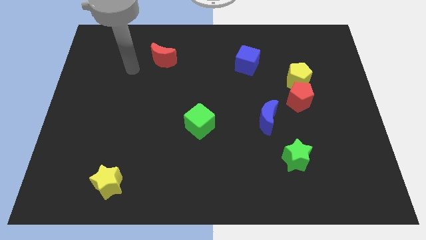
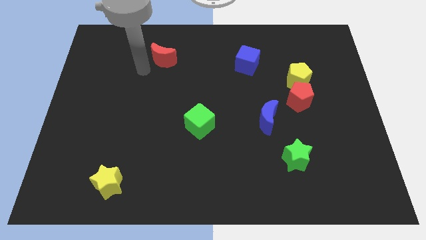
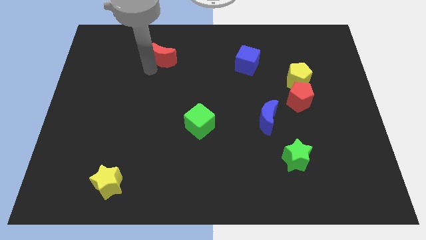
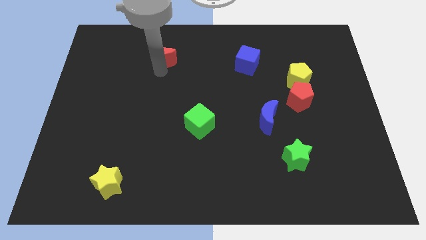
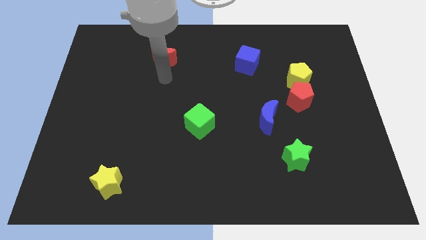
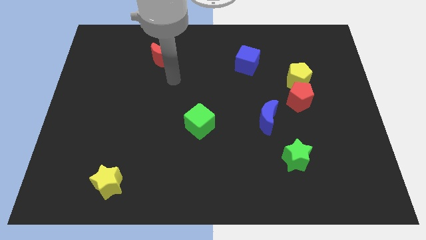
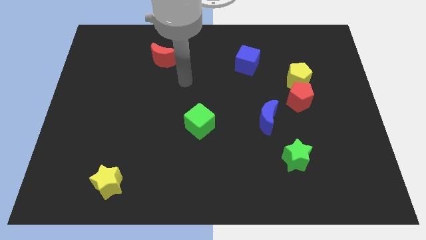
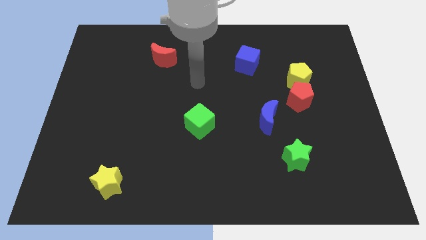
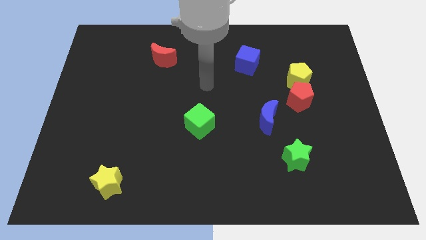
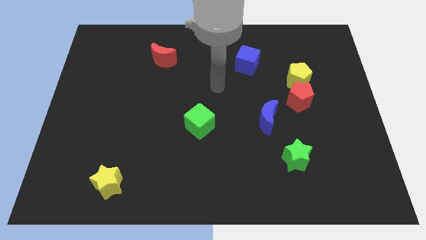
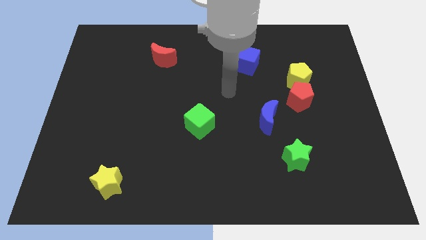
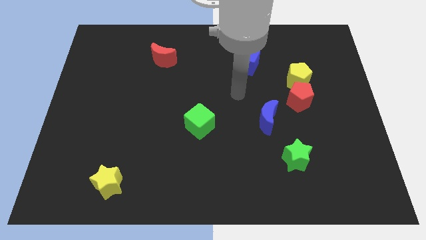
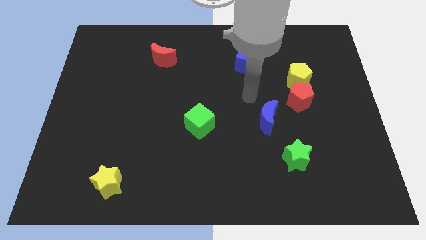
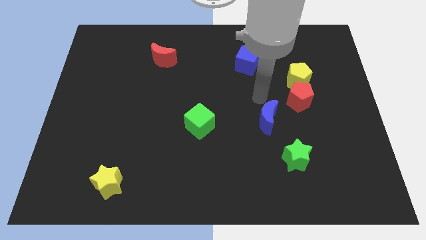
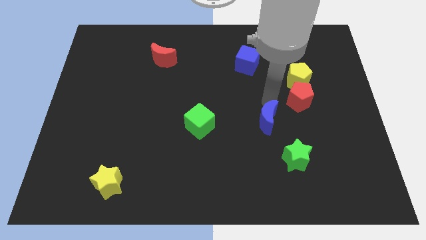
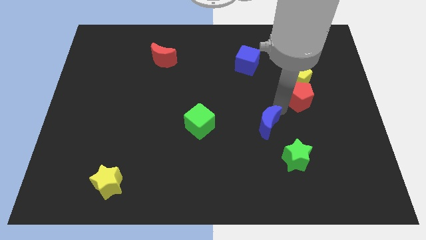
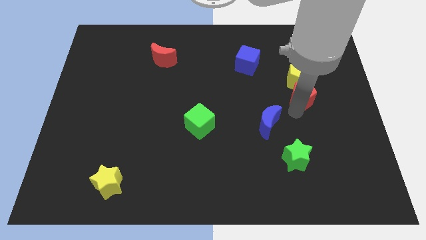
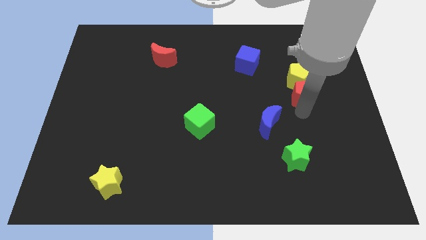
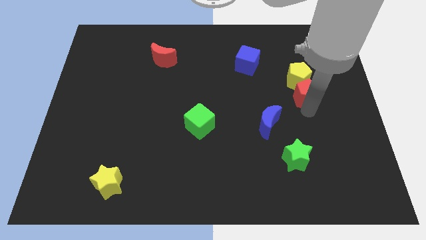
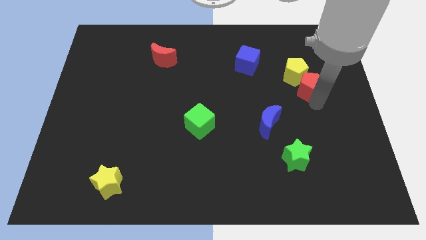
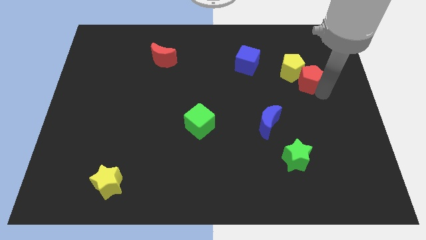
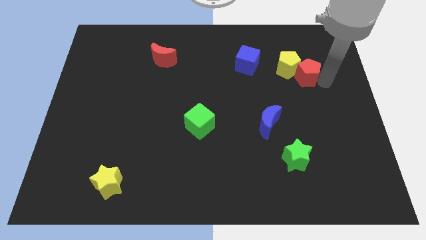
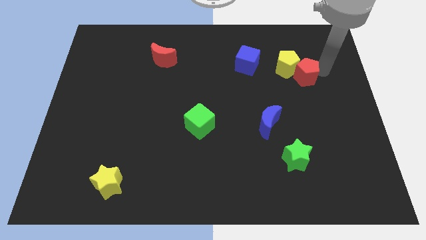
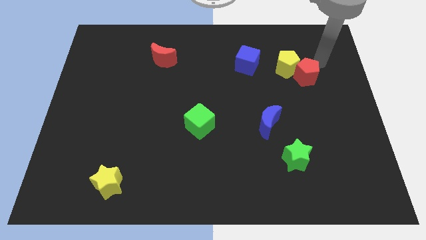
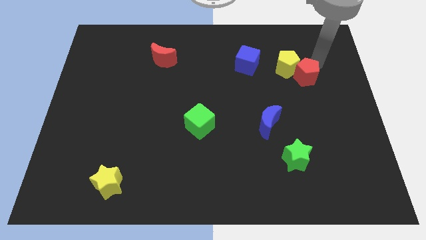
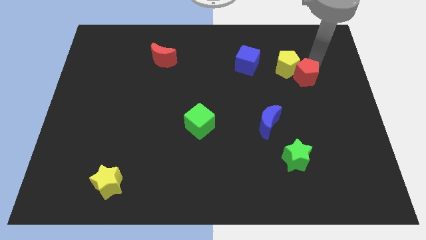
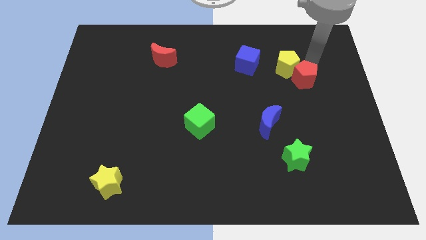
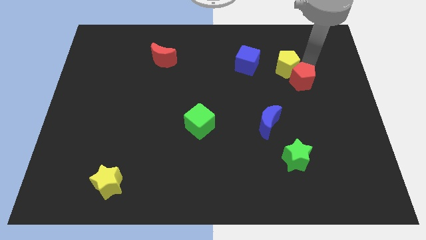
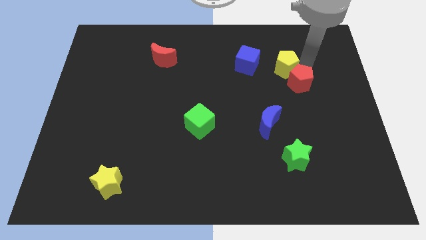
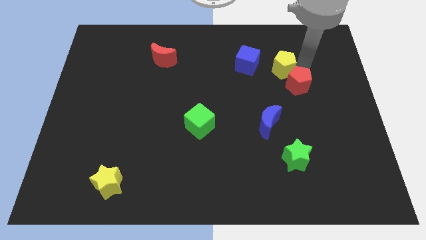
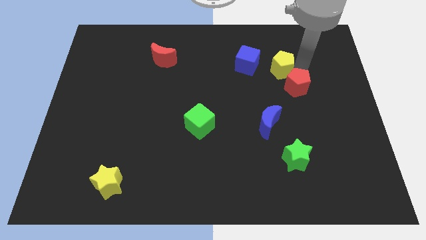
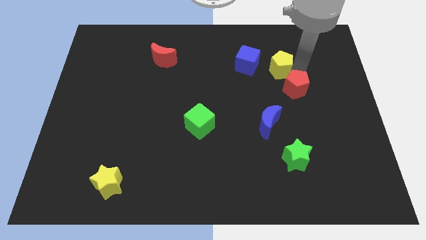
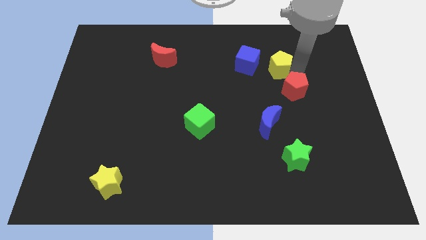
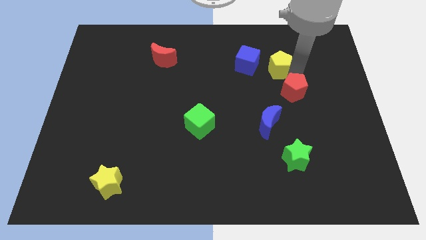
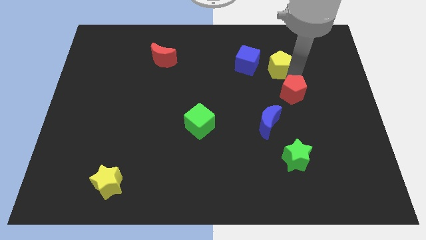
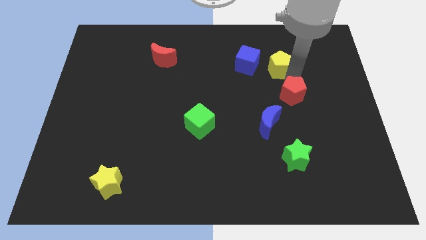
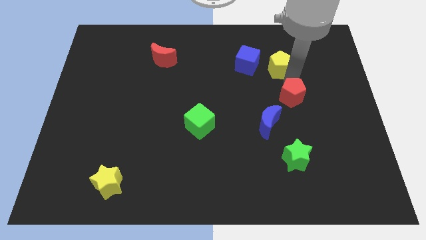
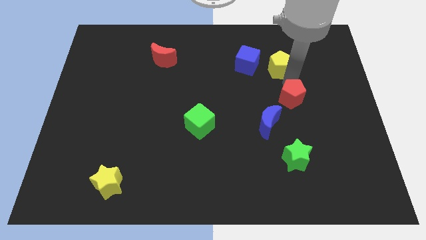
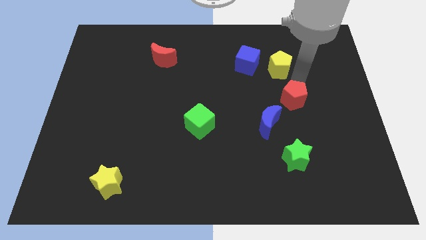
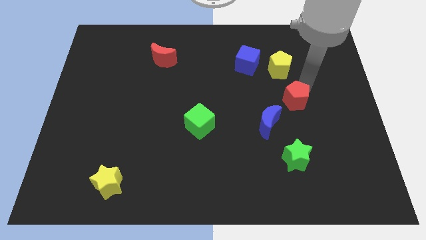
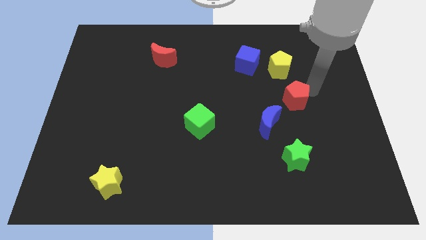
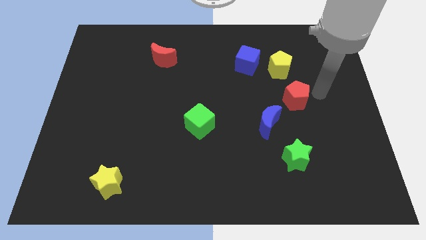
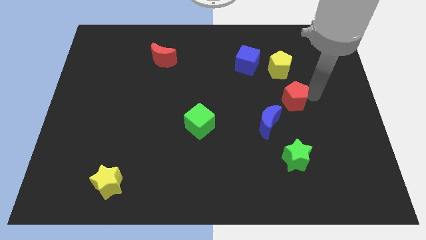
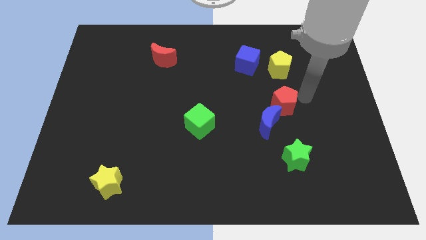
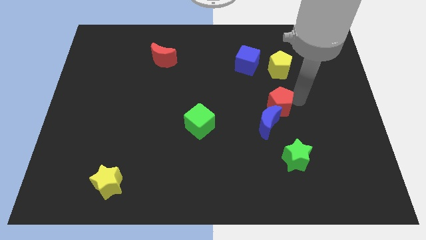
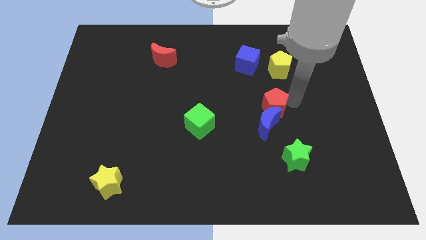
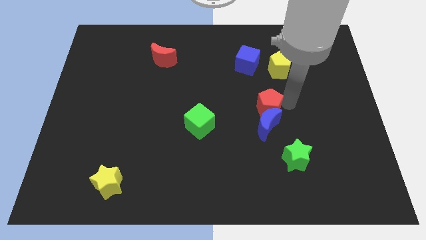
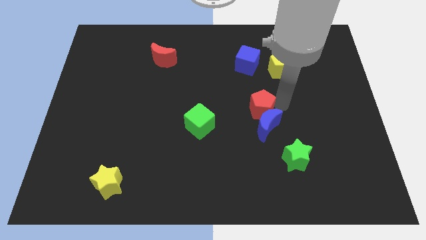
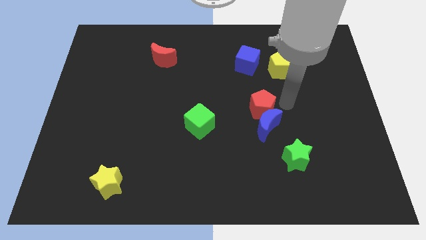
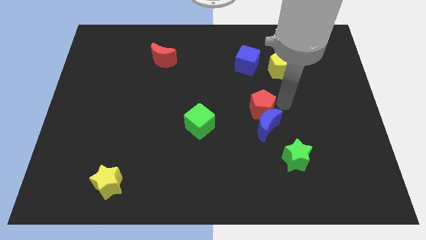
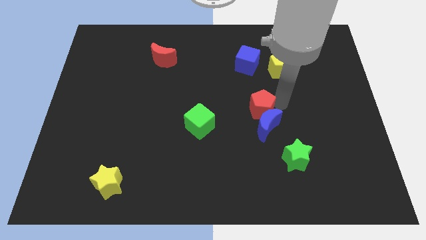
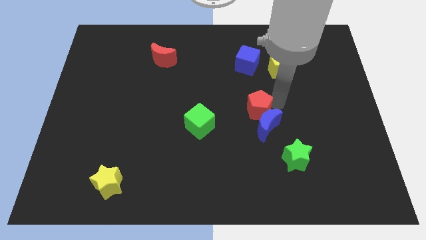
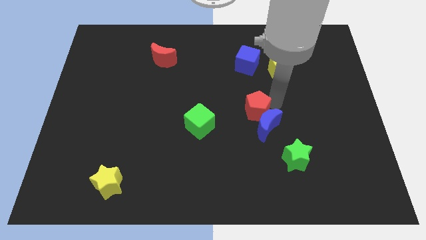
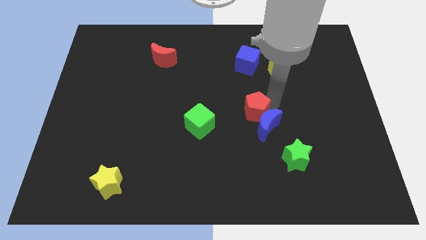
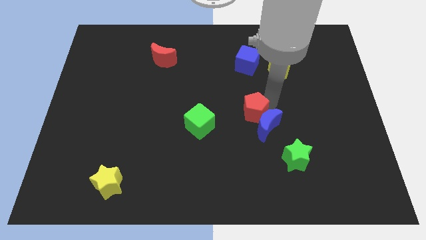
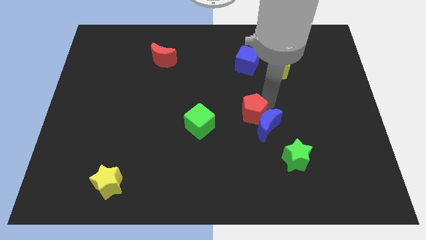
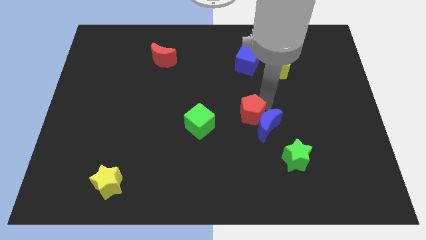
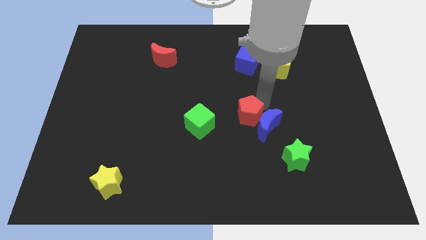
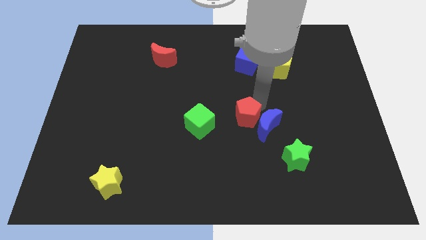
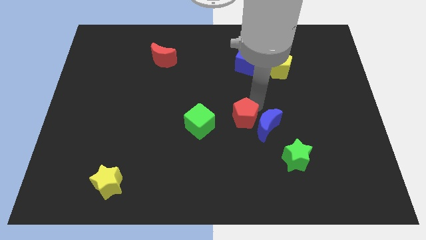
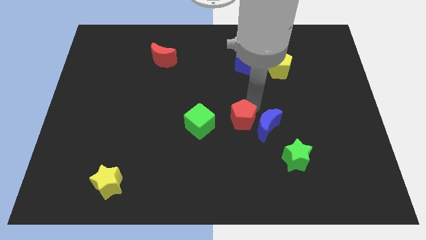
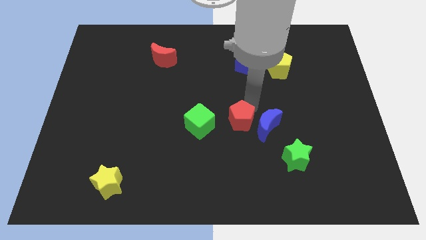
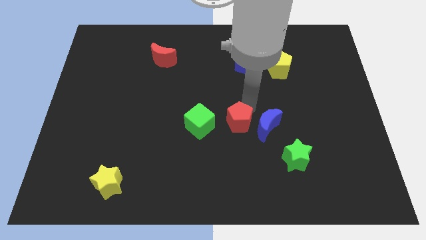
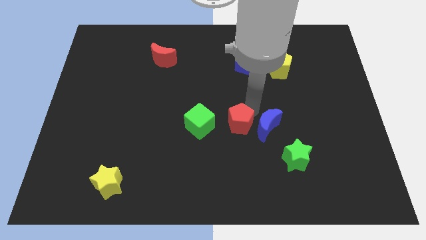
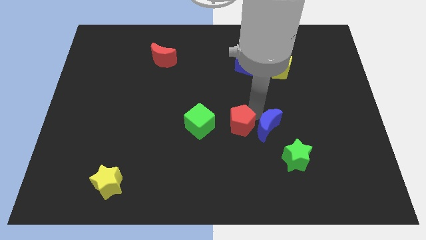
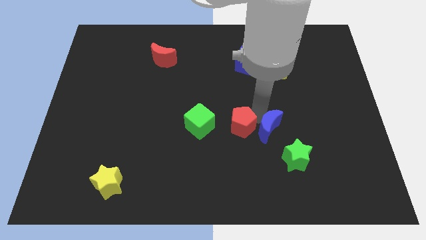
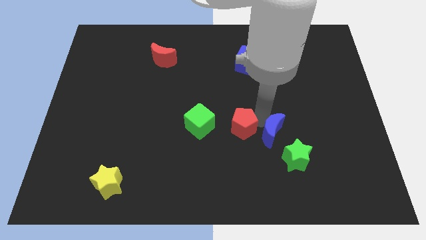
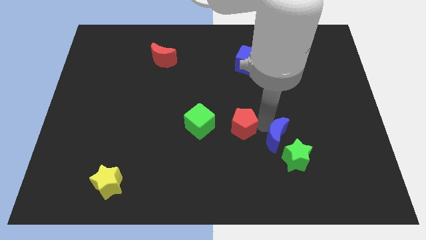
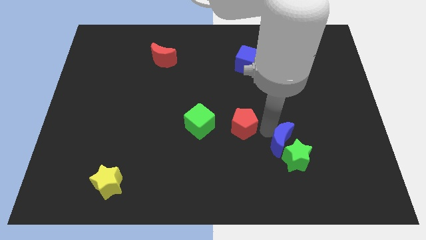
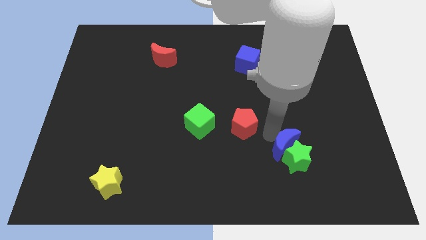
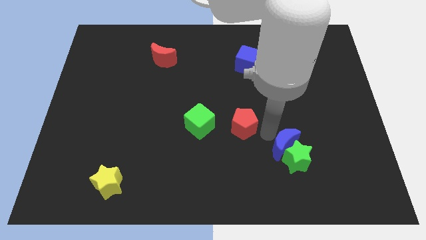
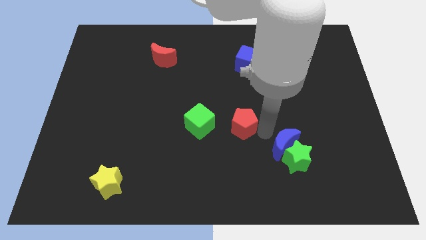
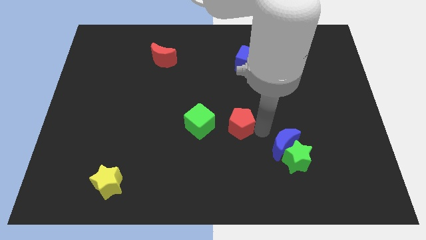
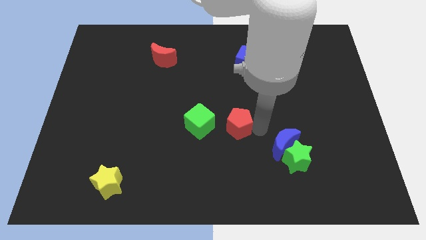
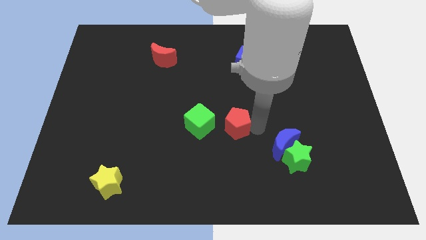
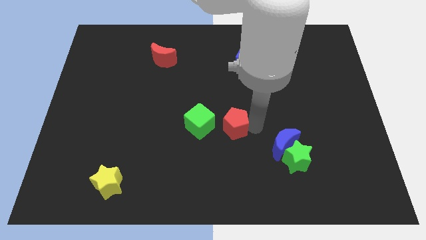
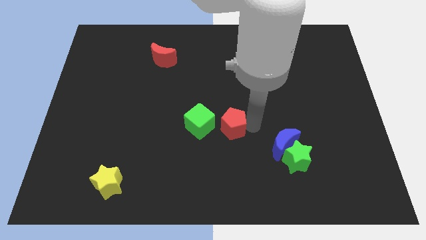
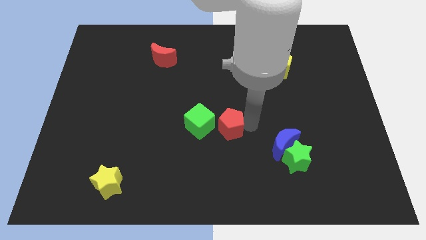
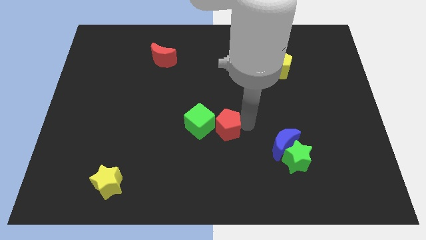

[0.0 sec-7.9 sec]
push the red pentagon next to the green cube
